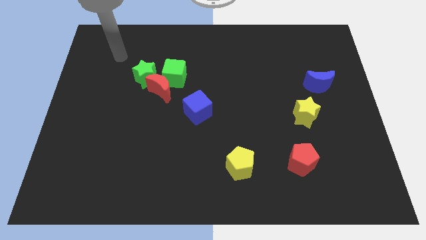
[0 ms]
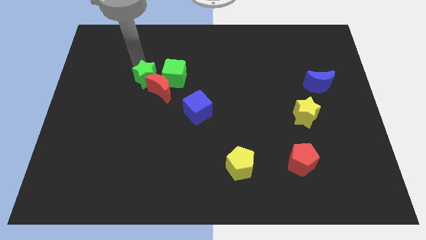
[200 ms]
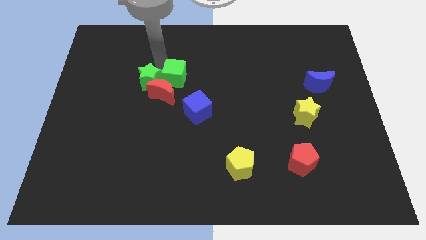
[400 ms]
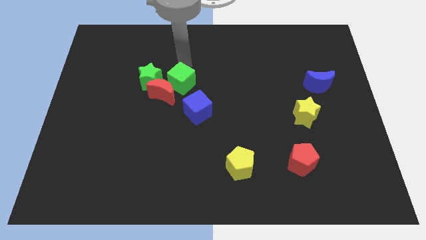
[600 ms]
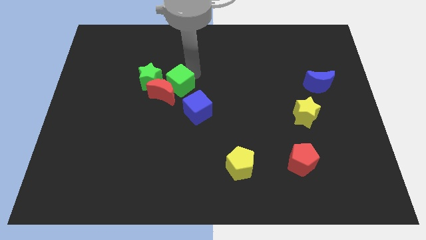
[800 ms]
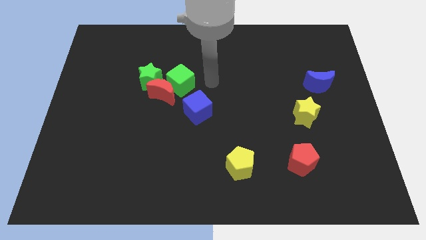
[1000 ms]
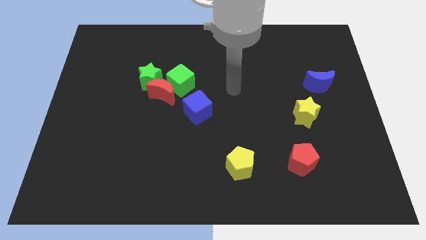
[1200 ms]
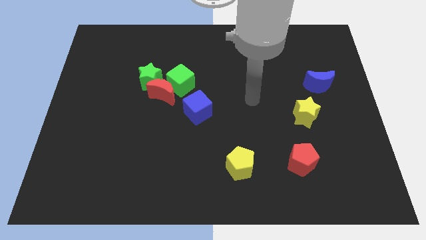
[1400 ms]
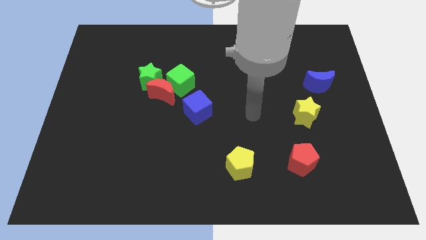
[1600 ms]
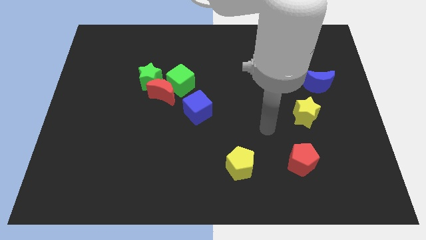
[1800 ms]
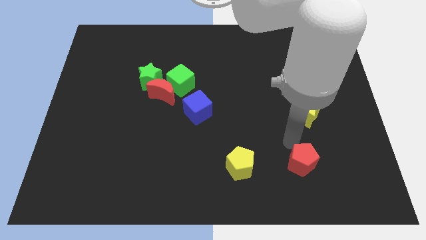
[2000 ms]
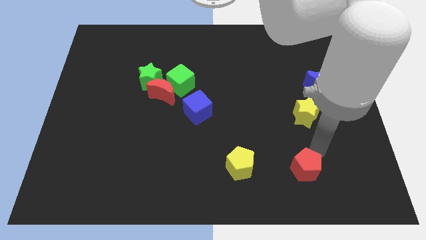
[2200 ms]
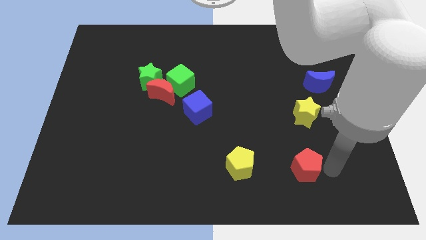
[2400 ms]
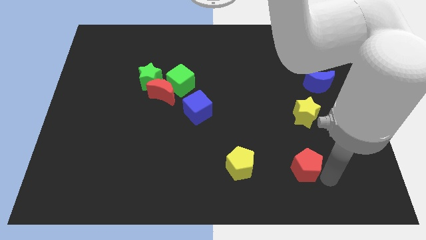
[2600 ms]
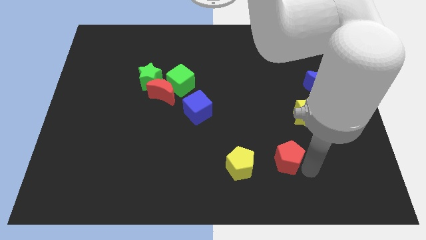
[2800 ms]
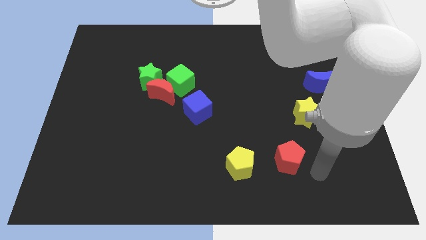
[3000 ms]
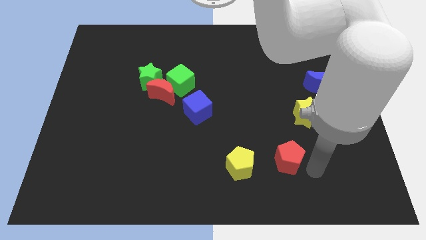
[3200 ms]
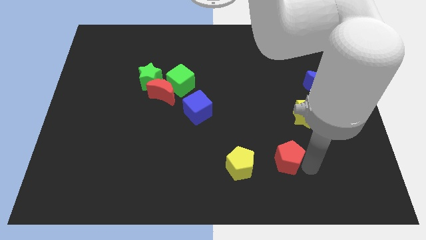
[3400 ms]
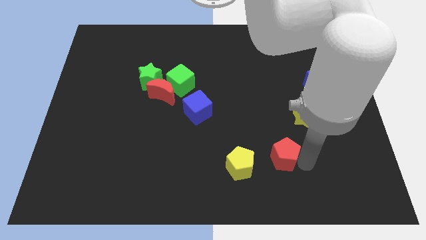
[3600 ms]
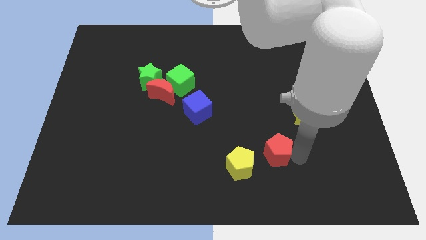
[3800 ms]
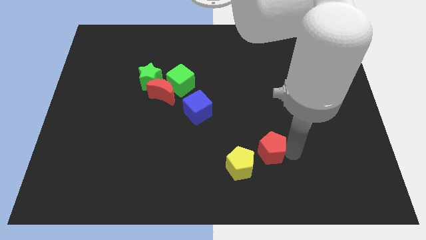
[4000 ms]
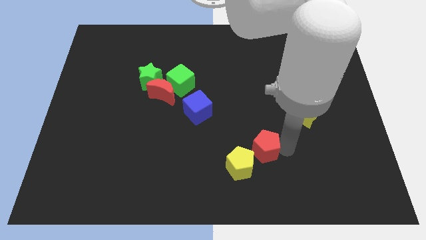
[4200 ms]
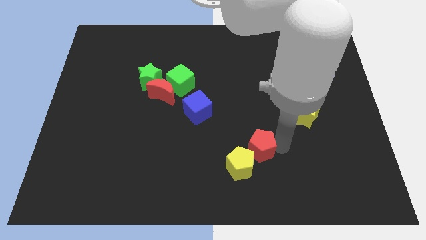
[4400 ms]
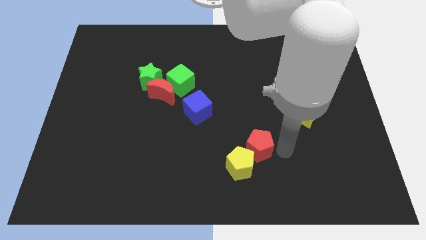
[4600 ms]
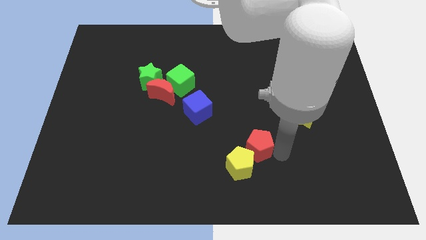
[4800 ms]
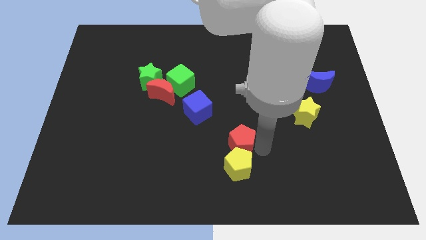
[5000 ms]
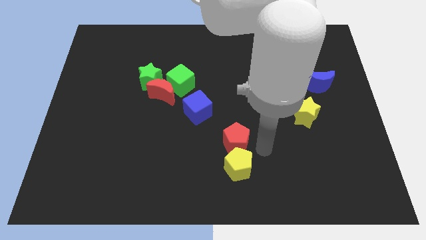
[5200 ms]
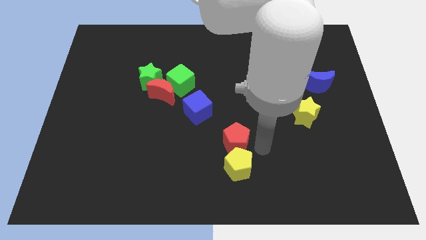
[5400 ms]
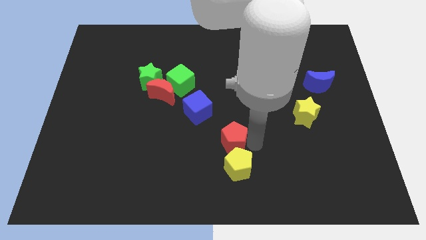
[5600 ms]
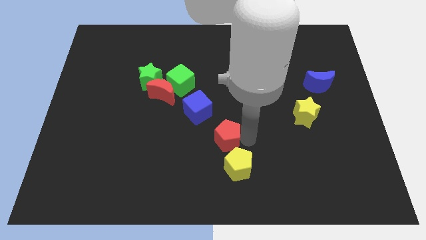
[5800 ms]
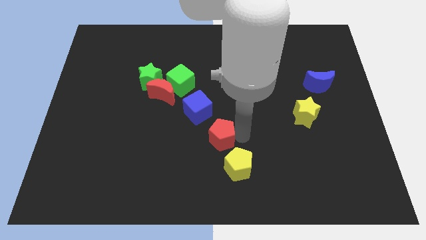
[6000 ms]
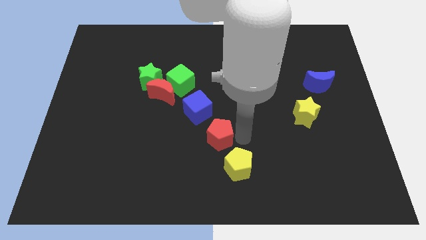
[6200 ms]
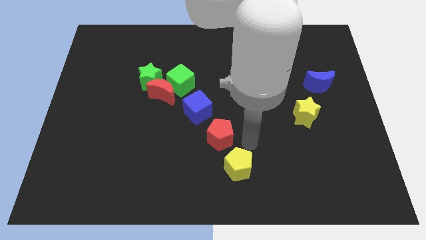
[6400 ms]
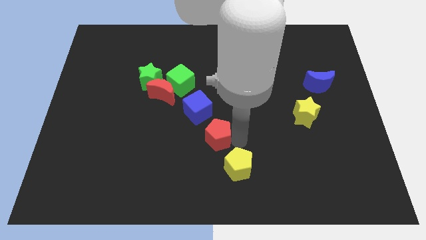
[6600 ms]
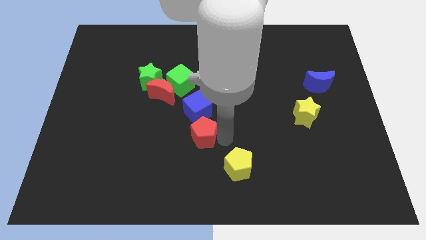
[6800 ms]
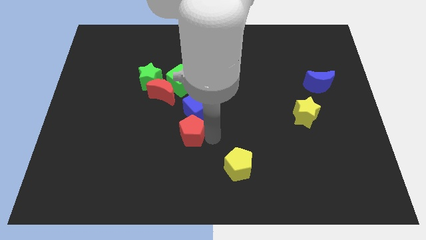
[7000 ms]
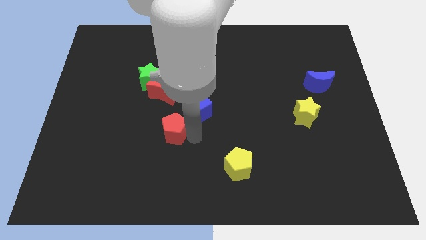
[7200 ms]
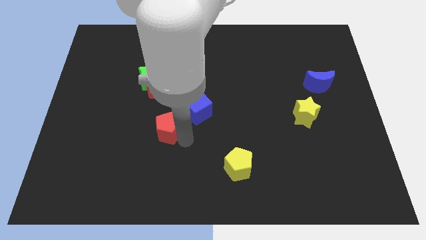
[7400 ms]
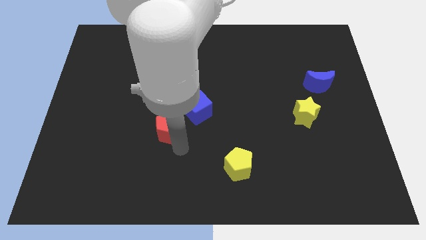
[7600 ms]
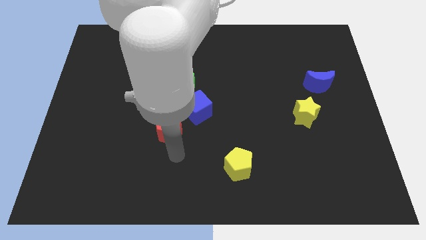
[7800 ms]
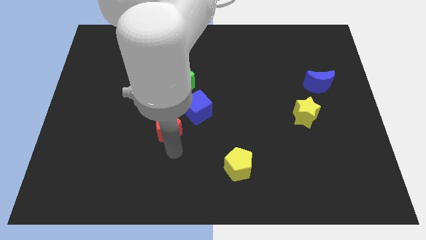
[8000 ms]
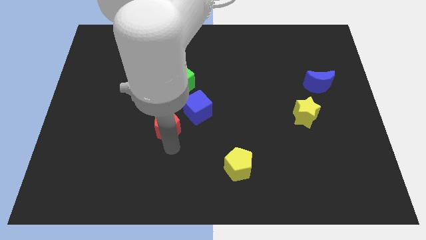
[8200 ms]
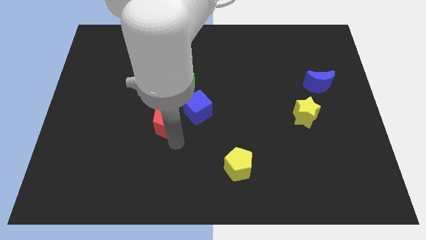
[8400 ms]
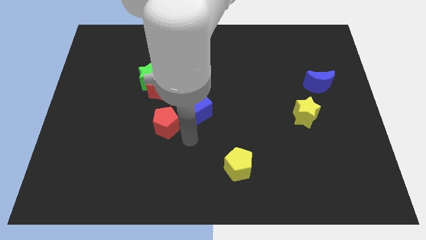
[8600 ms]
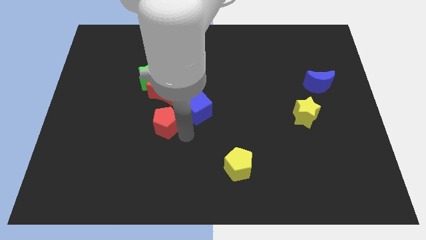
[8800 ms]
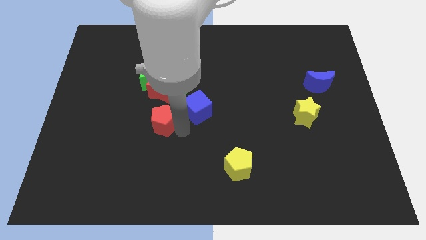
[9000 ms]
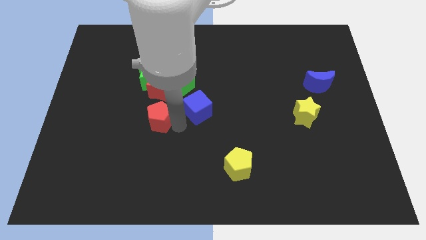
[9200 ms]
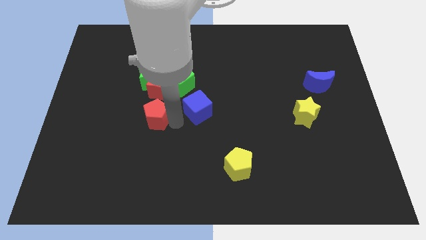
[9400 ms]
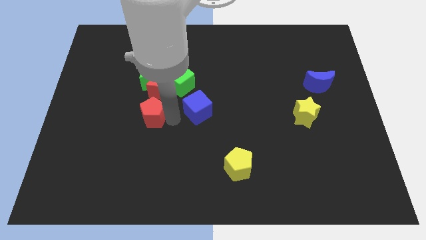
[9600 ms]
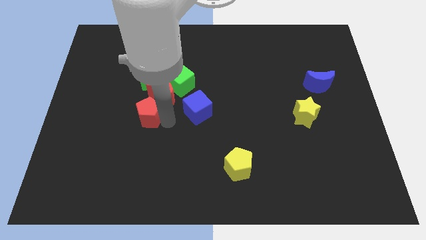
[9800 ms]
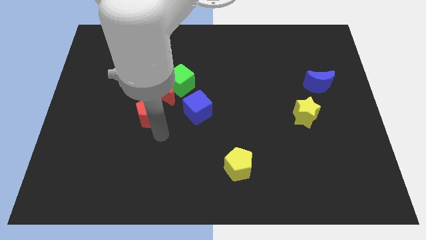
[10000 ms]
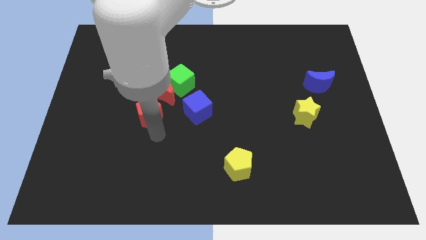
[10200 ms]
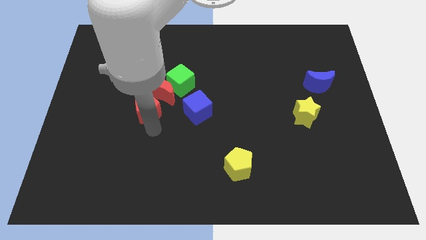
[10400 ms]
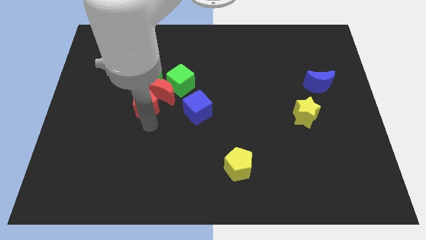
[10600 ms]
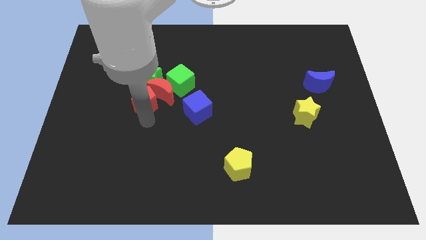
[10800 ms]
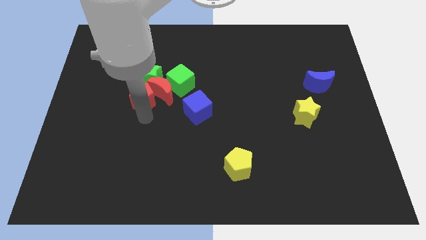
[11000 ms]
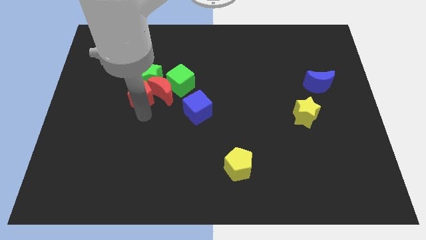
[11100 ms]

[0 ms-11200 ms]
put the red pentagon next to the green star
